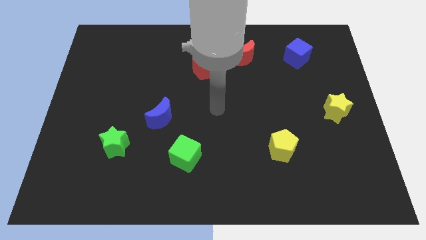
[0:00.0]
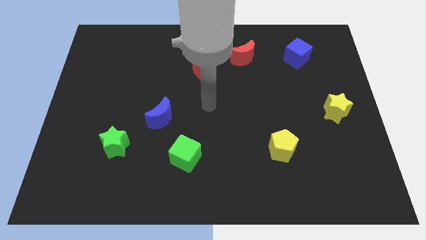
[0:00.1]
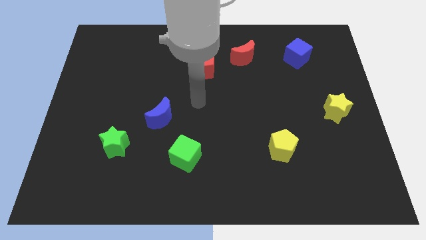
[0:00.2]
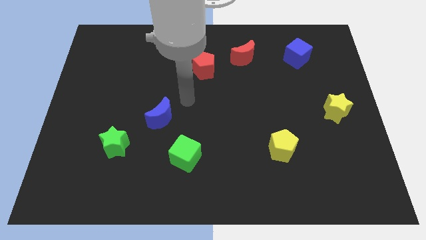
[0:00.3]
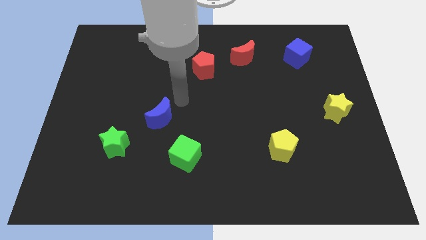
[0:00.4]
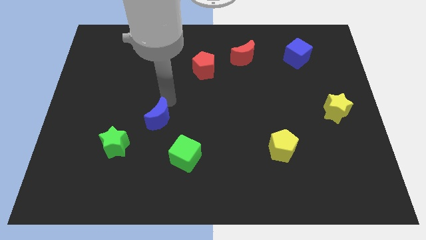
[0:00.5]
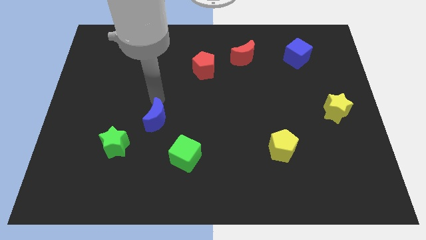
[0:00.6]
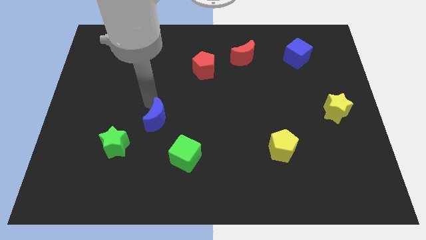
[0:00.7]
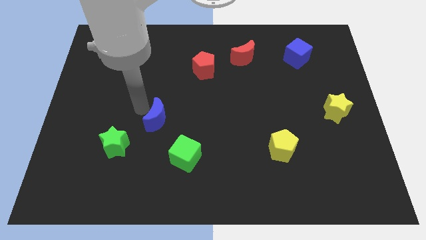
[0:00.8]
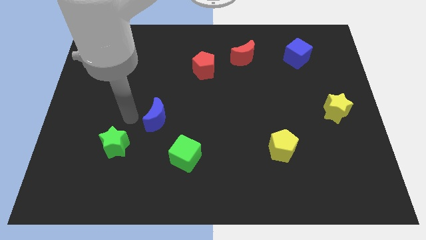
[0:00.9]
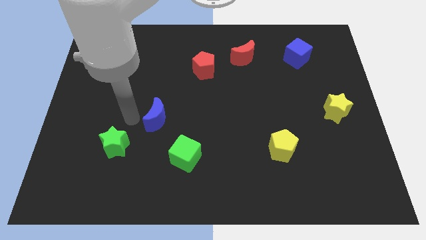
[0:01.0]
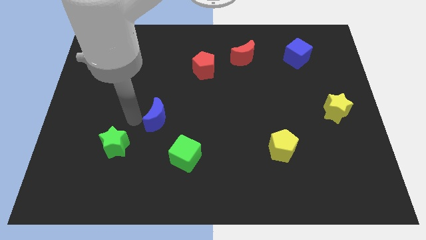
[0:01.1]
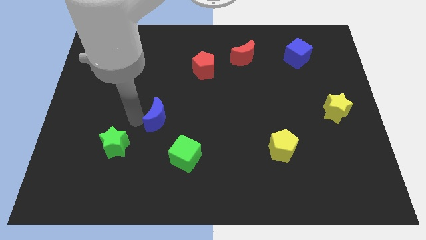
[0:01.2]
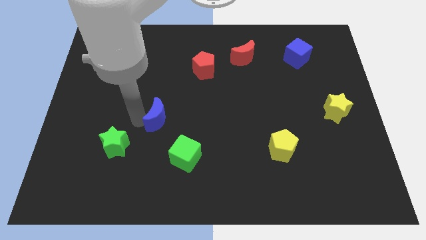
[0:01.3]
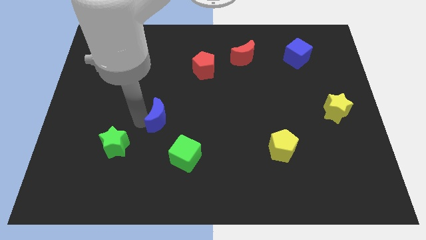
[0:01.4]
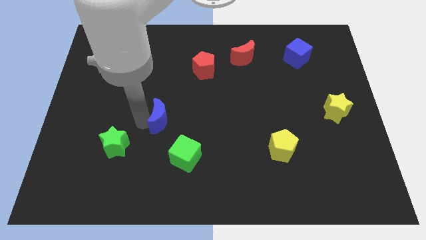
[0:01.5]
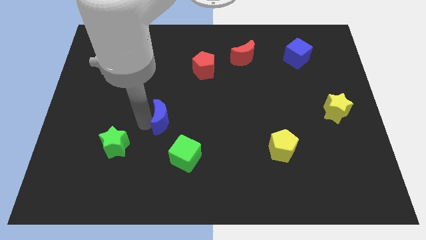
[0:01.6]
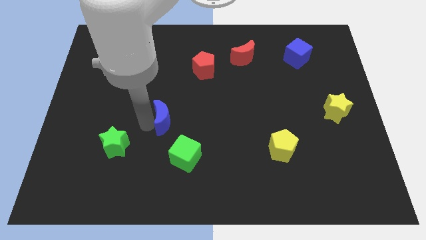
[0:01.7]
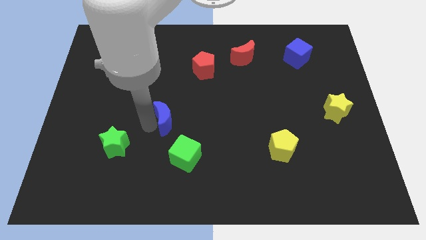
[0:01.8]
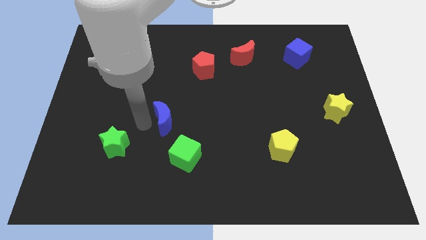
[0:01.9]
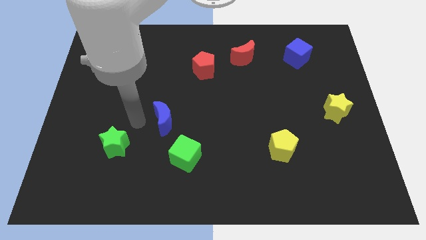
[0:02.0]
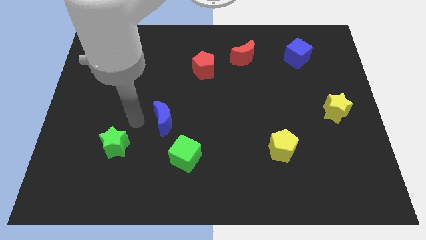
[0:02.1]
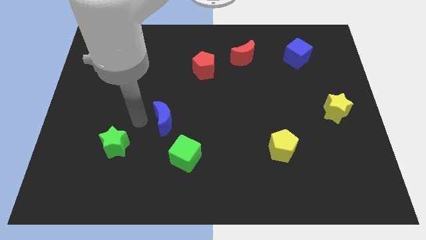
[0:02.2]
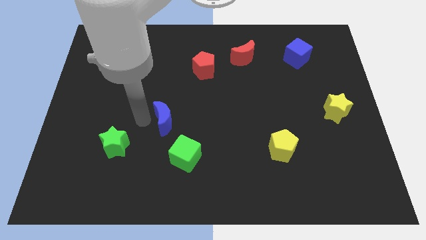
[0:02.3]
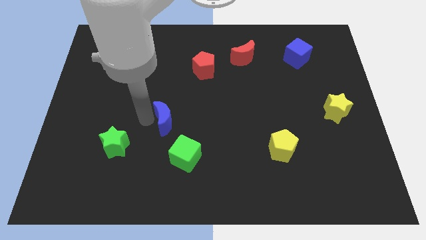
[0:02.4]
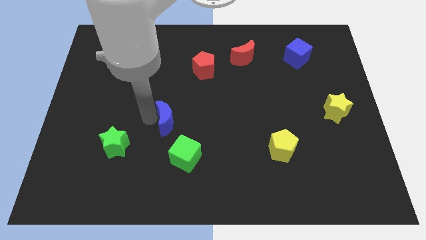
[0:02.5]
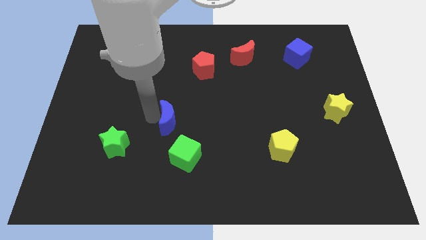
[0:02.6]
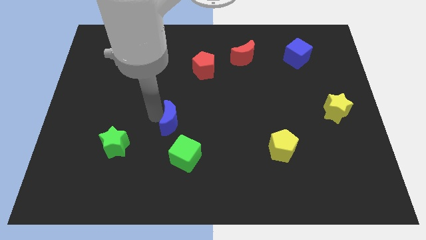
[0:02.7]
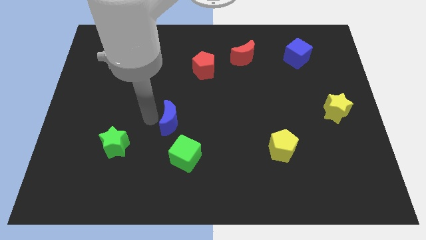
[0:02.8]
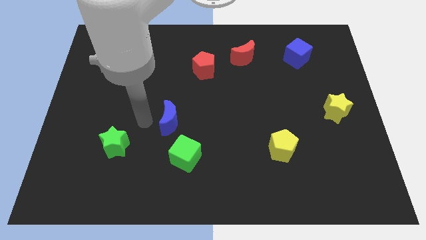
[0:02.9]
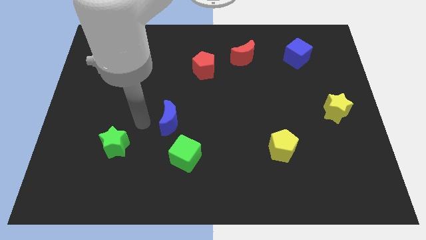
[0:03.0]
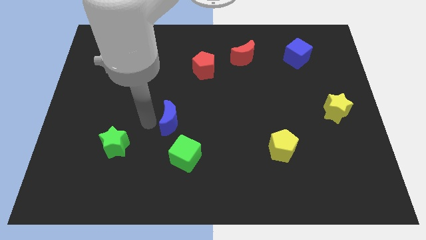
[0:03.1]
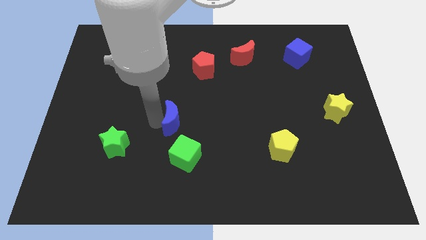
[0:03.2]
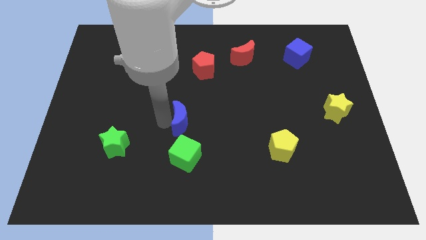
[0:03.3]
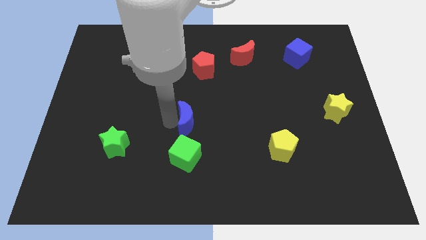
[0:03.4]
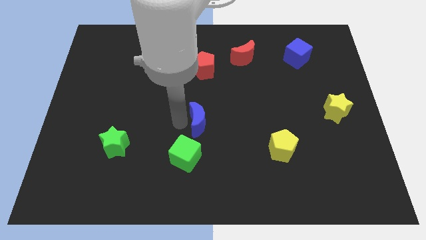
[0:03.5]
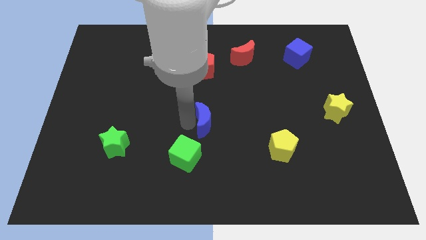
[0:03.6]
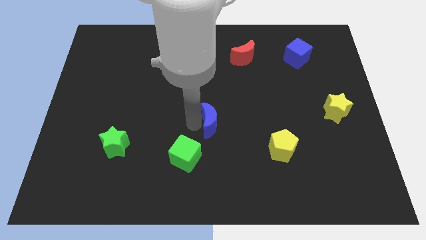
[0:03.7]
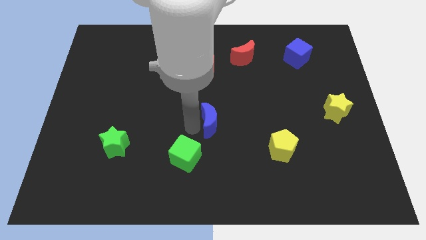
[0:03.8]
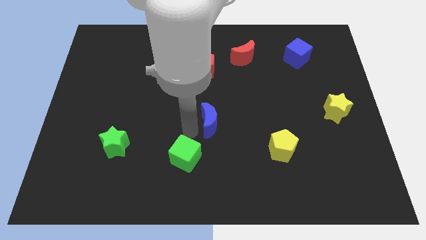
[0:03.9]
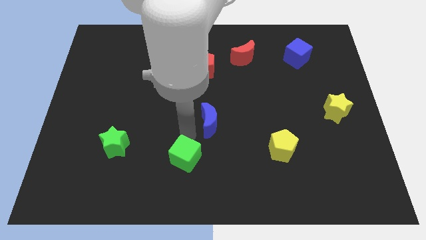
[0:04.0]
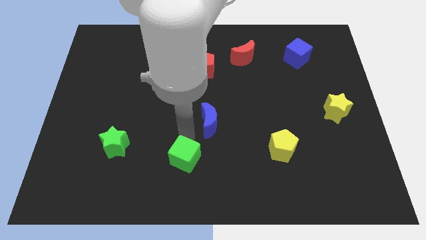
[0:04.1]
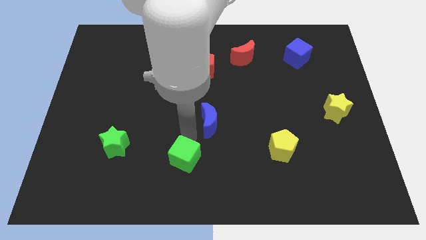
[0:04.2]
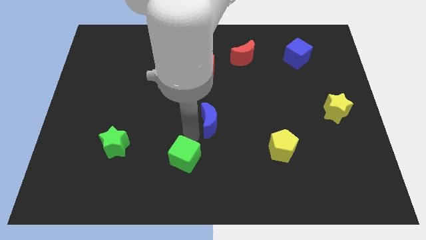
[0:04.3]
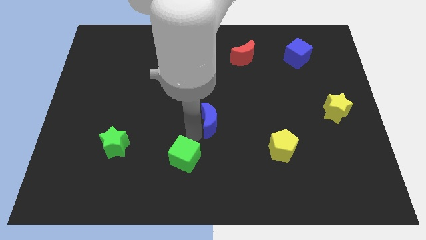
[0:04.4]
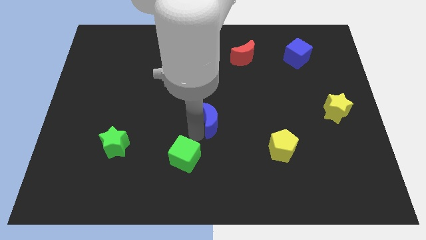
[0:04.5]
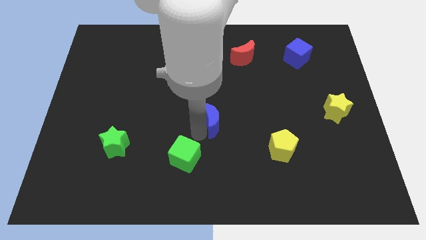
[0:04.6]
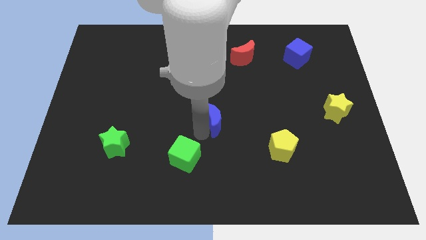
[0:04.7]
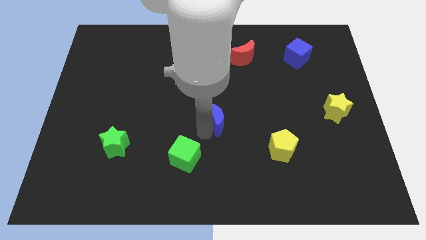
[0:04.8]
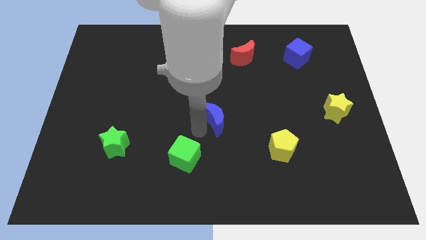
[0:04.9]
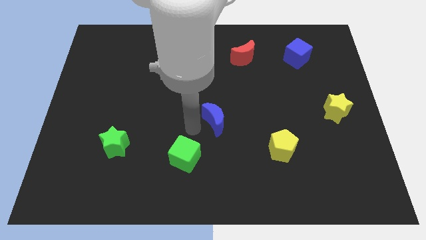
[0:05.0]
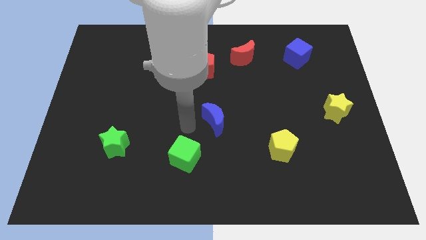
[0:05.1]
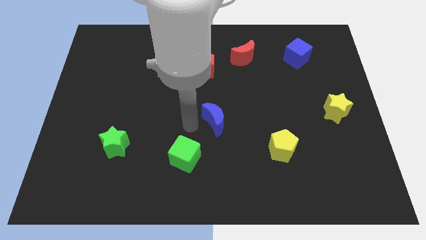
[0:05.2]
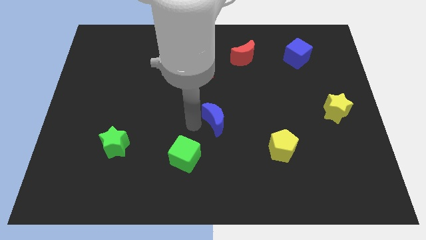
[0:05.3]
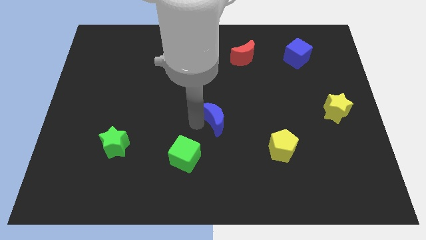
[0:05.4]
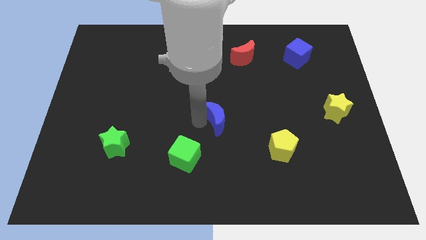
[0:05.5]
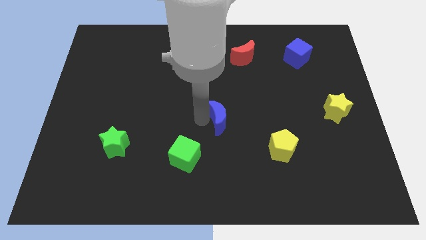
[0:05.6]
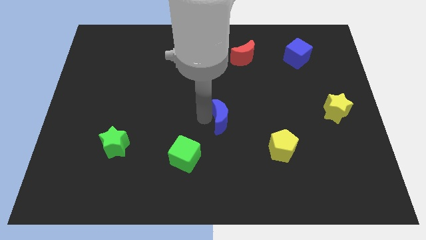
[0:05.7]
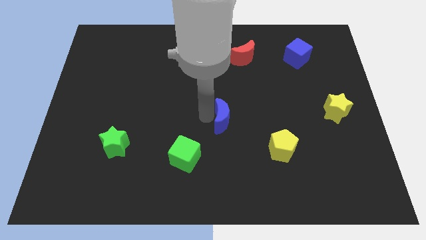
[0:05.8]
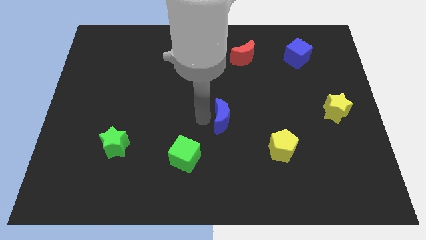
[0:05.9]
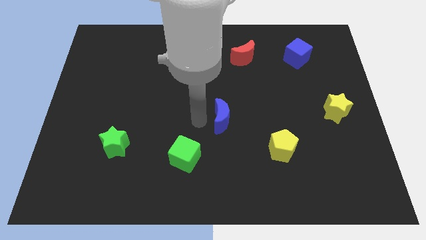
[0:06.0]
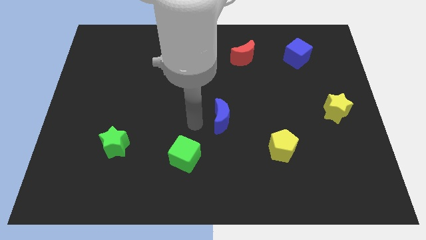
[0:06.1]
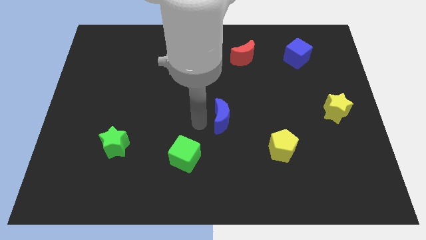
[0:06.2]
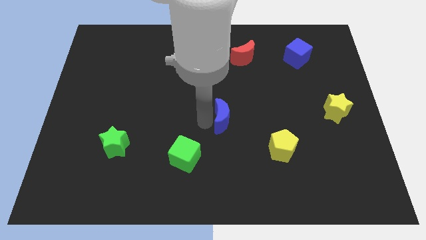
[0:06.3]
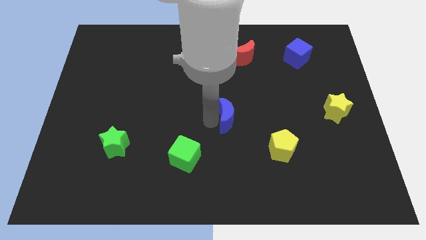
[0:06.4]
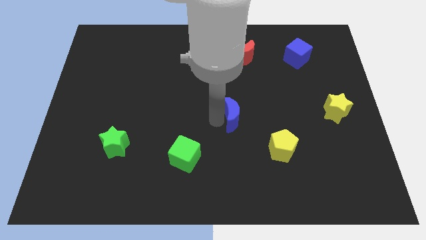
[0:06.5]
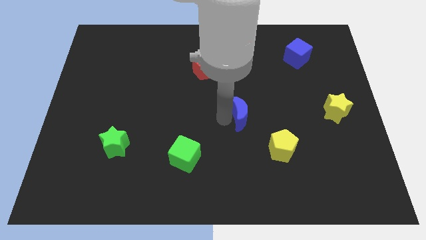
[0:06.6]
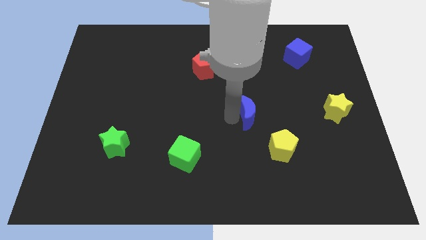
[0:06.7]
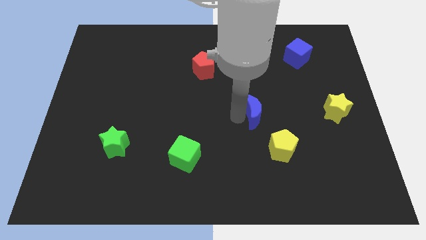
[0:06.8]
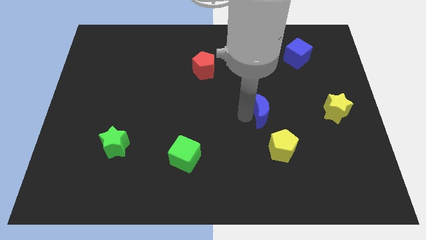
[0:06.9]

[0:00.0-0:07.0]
slide the blue moon to the top side of the yellow pentagon
